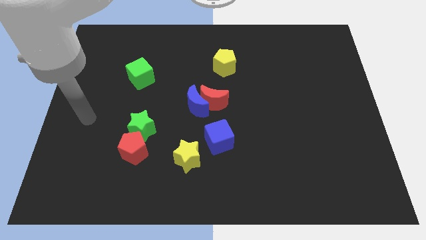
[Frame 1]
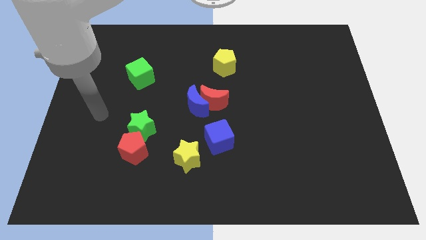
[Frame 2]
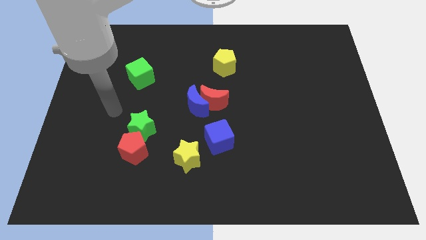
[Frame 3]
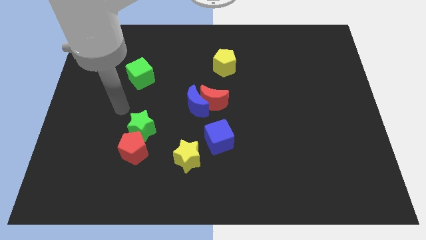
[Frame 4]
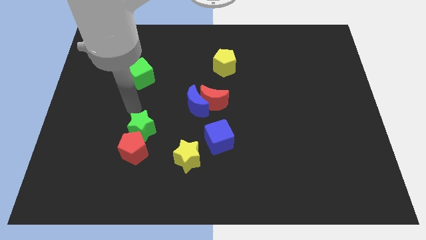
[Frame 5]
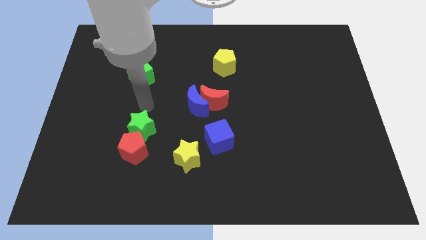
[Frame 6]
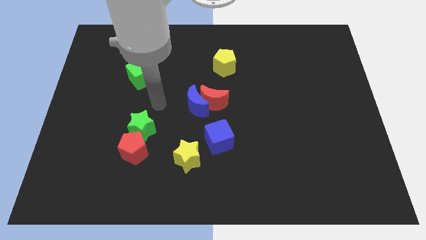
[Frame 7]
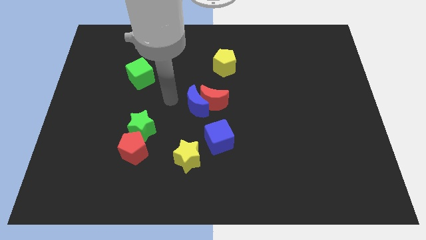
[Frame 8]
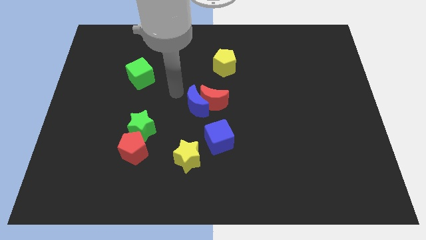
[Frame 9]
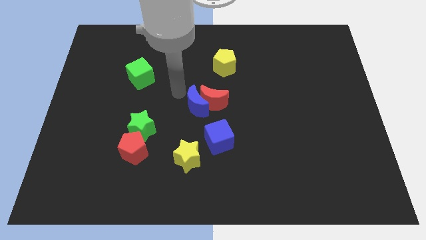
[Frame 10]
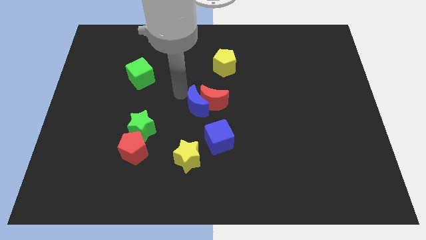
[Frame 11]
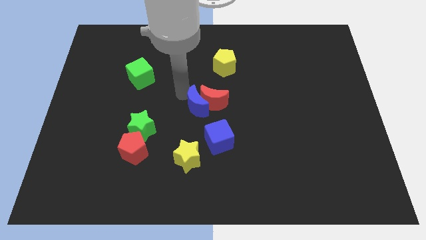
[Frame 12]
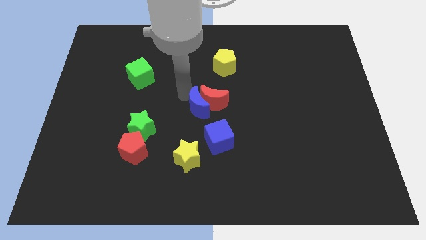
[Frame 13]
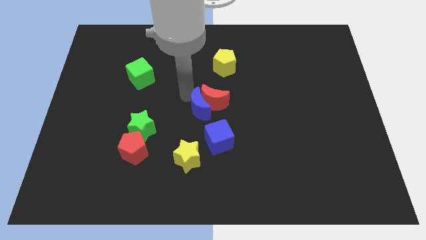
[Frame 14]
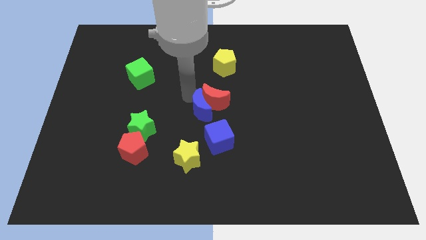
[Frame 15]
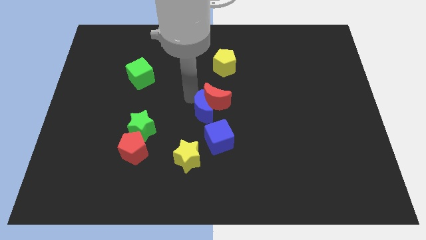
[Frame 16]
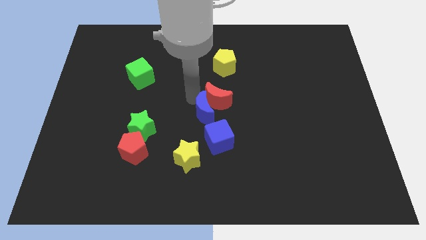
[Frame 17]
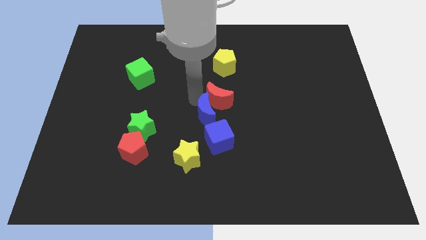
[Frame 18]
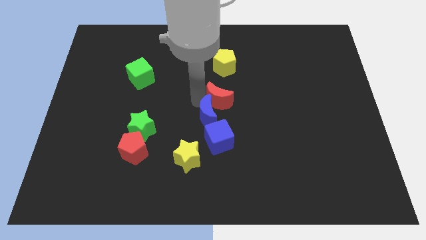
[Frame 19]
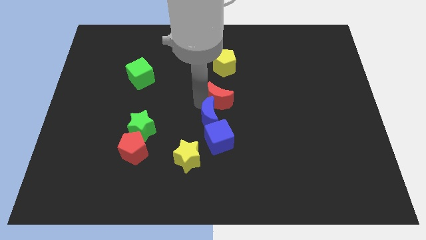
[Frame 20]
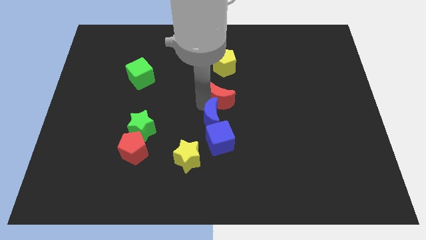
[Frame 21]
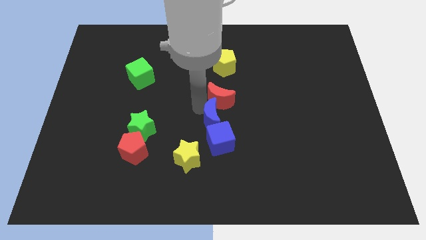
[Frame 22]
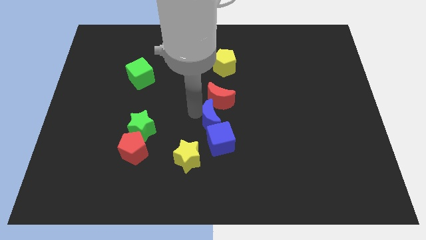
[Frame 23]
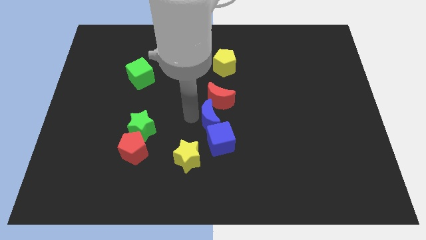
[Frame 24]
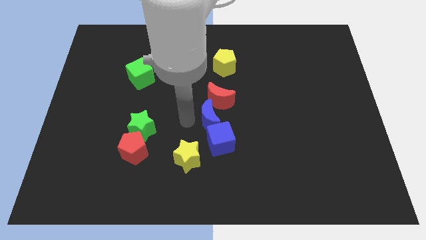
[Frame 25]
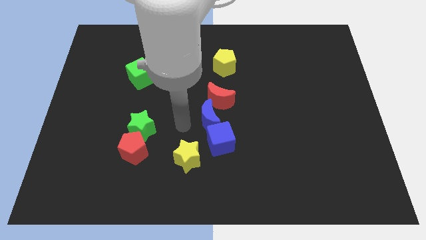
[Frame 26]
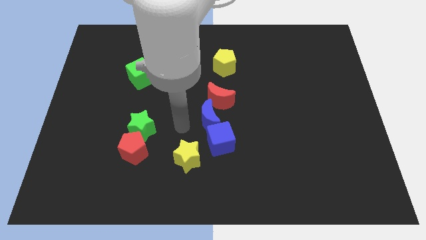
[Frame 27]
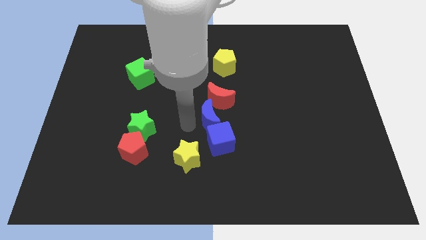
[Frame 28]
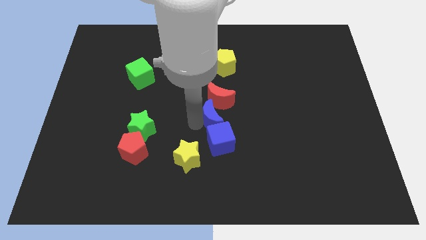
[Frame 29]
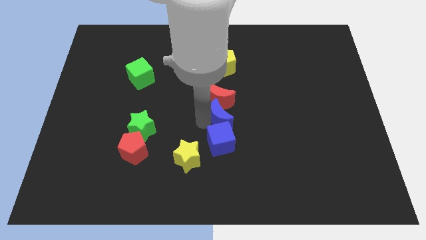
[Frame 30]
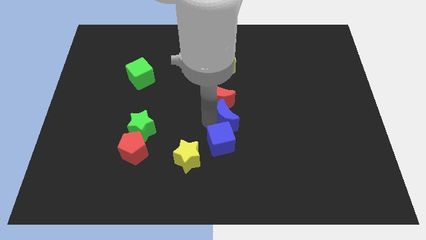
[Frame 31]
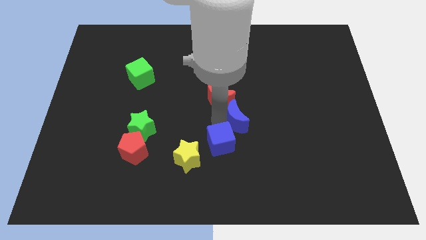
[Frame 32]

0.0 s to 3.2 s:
move the blue moon to the right slightly

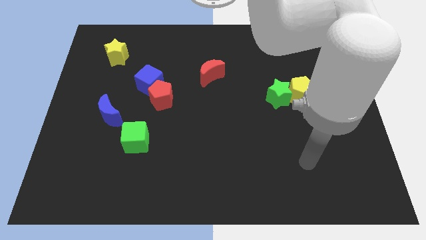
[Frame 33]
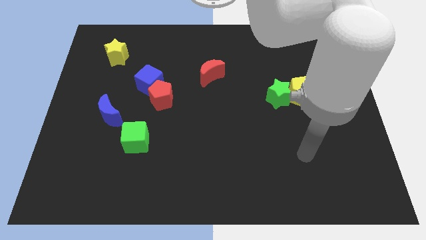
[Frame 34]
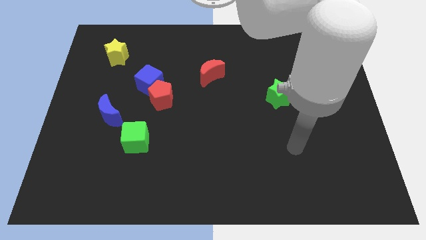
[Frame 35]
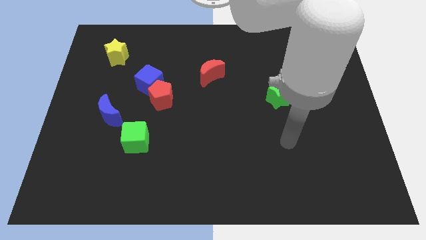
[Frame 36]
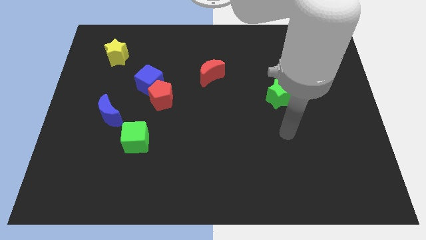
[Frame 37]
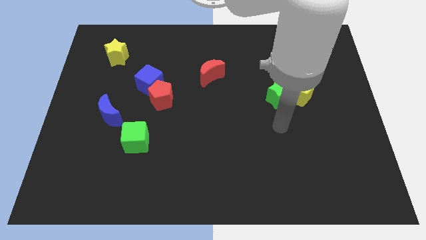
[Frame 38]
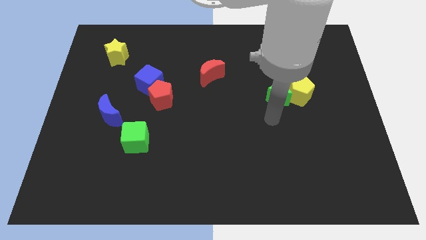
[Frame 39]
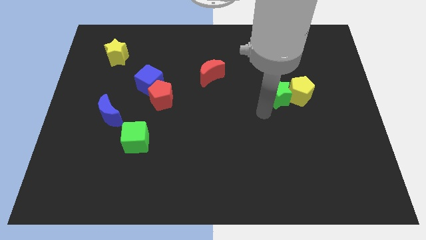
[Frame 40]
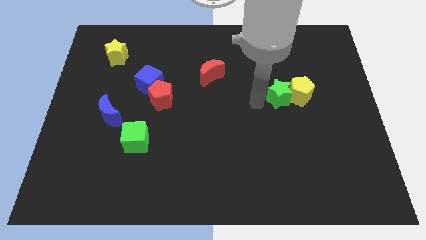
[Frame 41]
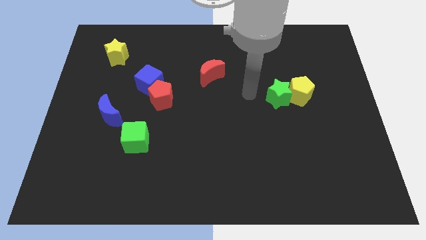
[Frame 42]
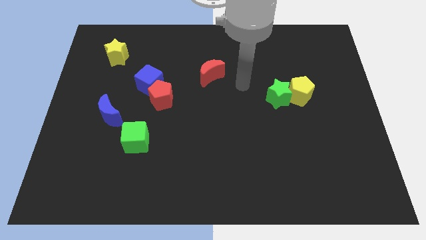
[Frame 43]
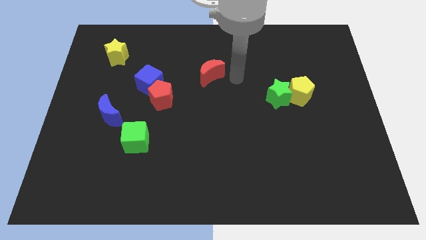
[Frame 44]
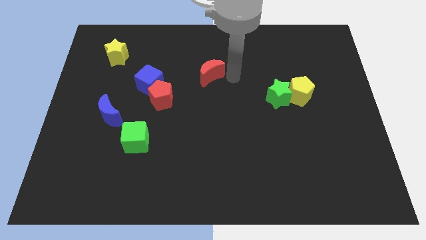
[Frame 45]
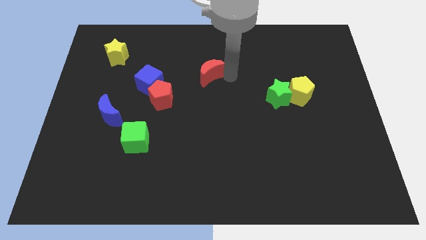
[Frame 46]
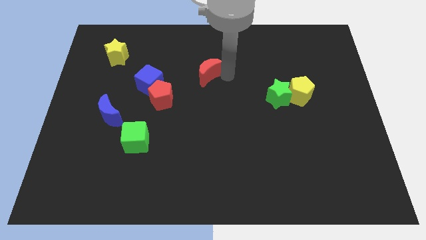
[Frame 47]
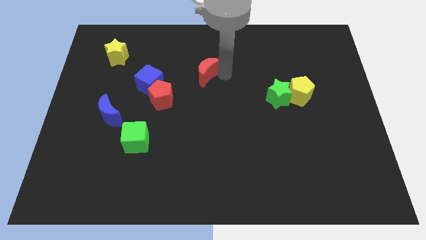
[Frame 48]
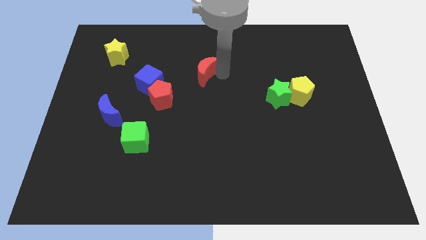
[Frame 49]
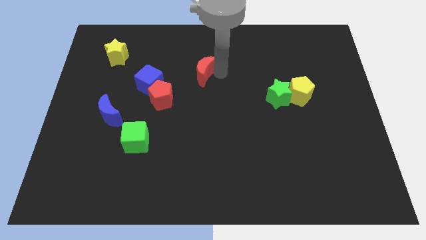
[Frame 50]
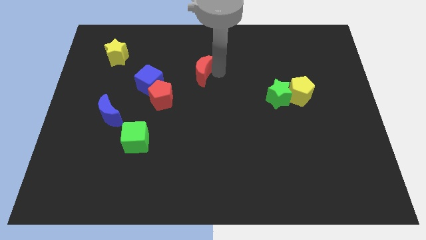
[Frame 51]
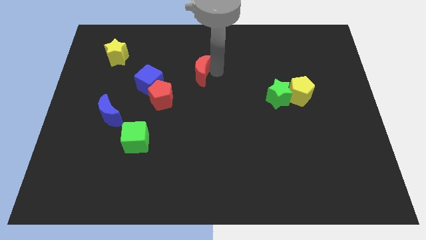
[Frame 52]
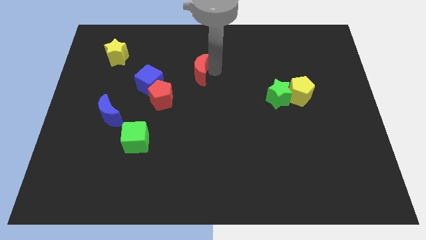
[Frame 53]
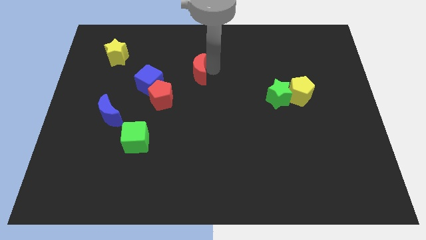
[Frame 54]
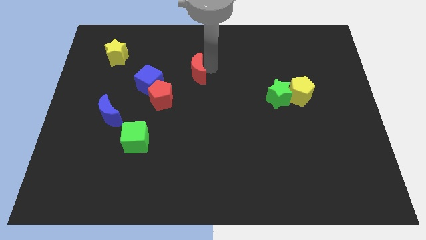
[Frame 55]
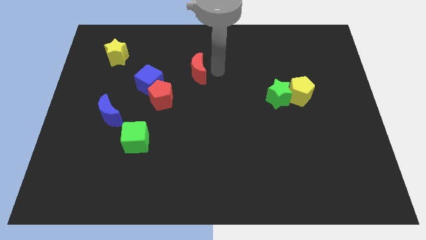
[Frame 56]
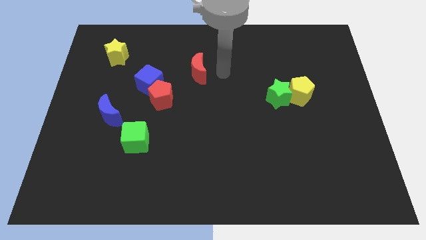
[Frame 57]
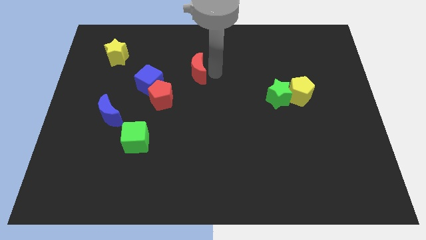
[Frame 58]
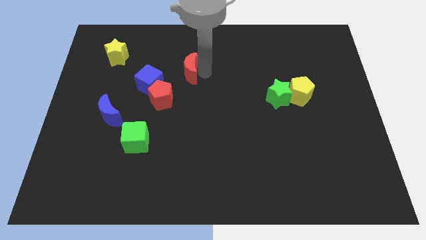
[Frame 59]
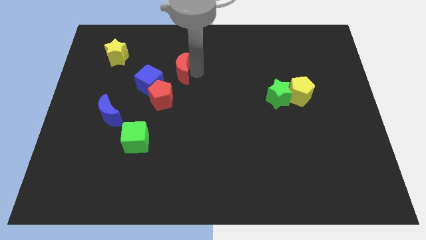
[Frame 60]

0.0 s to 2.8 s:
move the red moon to the left slightly

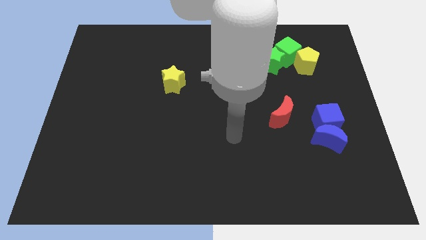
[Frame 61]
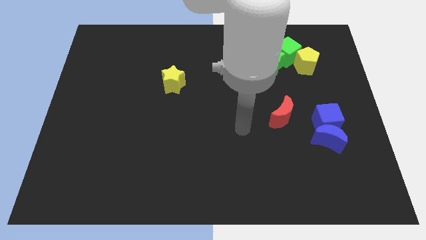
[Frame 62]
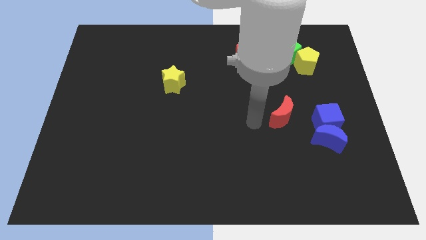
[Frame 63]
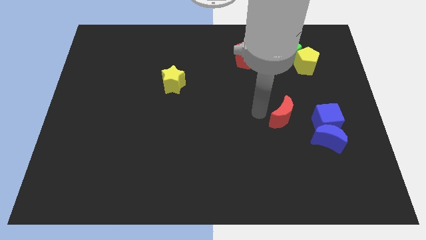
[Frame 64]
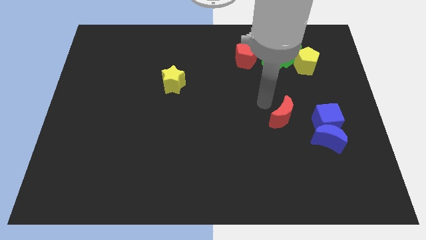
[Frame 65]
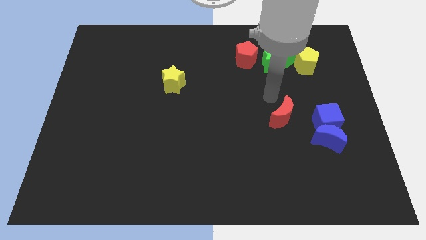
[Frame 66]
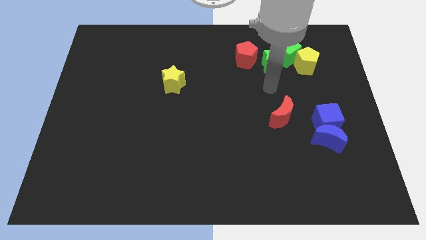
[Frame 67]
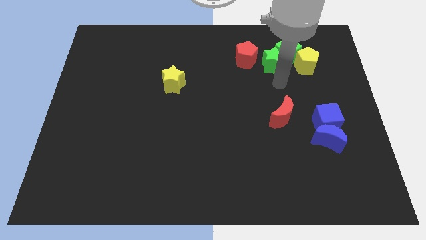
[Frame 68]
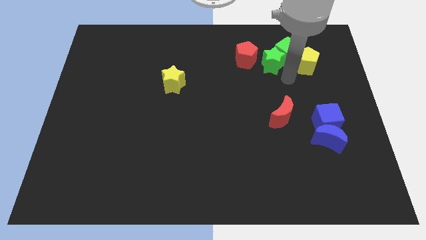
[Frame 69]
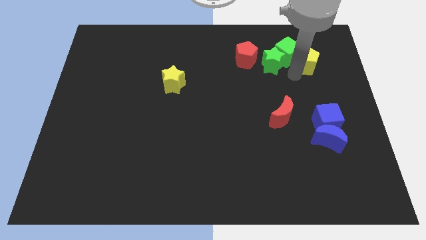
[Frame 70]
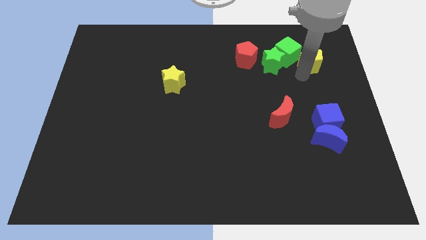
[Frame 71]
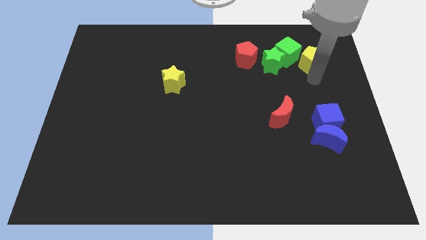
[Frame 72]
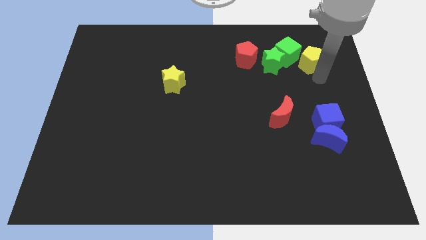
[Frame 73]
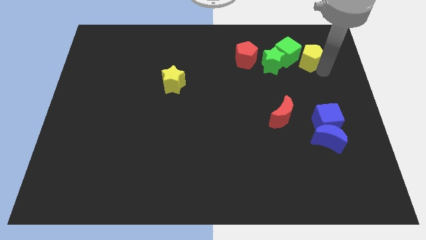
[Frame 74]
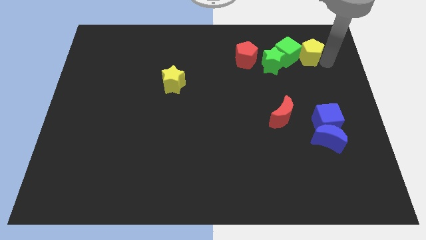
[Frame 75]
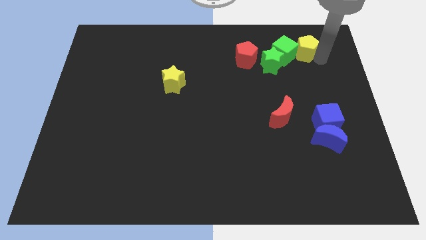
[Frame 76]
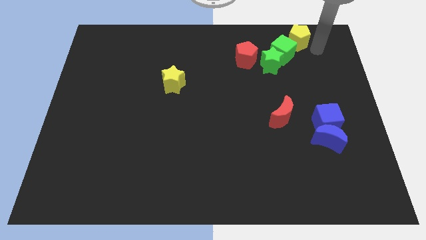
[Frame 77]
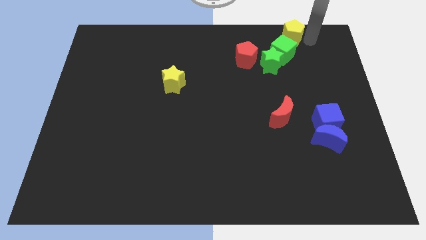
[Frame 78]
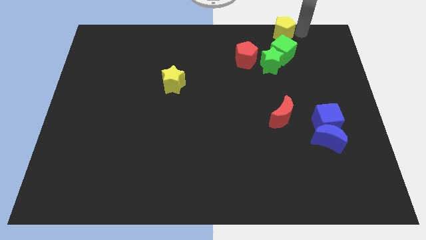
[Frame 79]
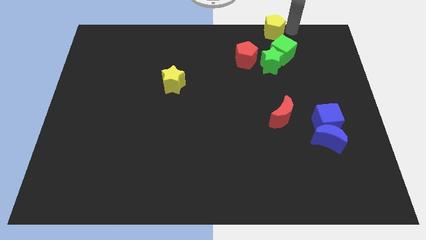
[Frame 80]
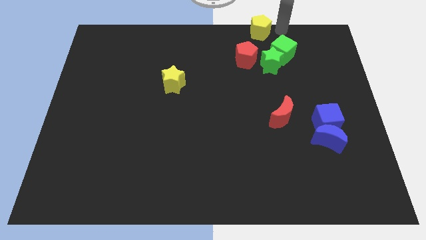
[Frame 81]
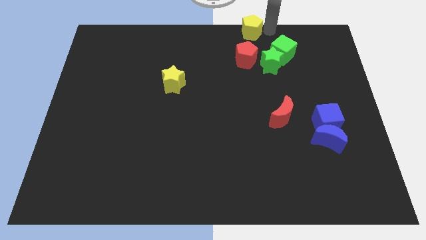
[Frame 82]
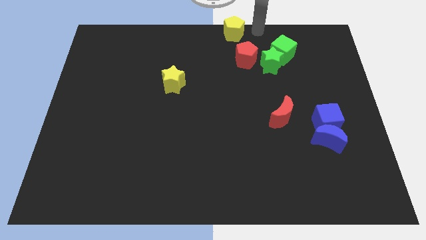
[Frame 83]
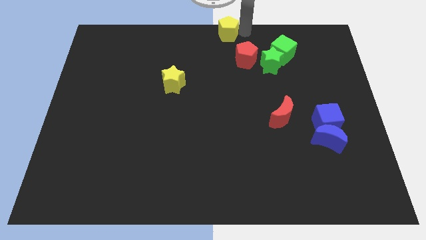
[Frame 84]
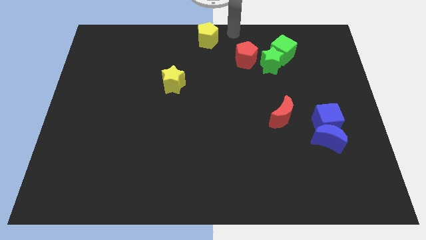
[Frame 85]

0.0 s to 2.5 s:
push the yellow pentagon left
